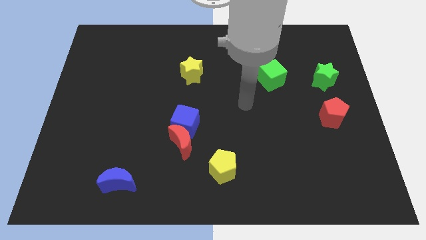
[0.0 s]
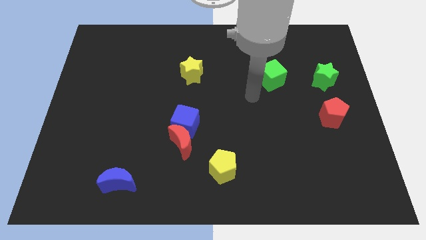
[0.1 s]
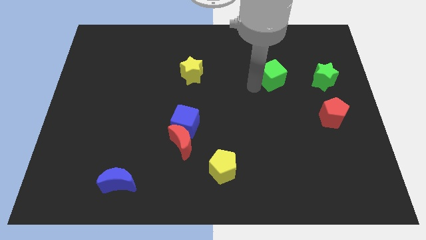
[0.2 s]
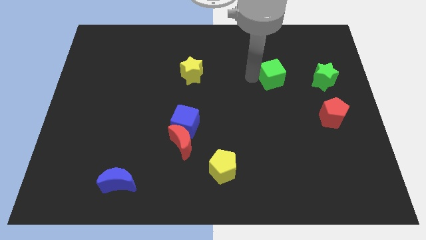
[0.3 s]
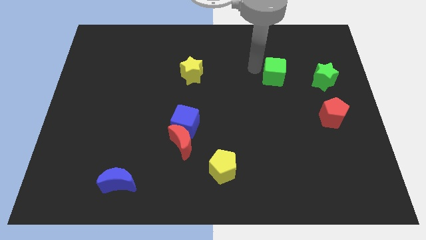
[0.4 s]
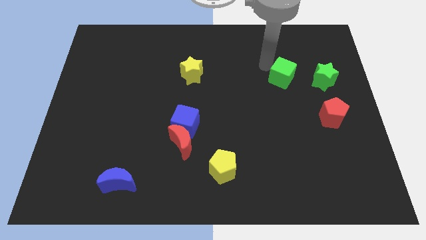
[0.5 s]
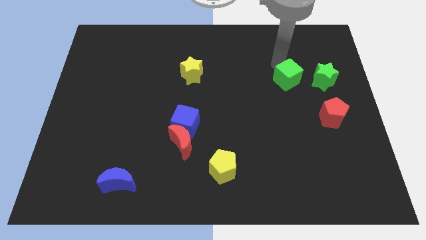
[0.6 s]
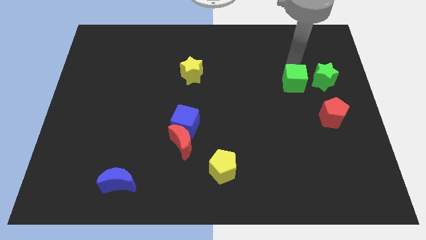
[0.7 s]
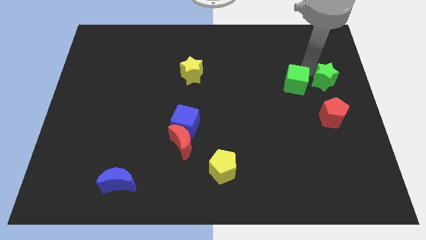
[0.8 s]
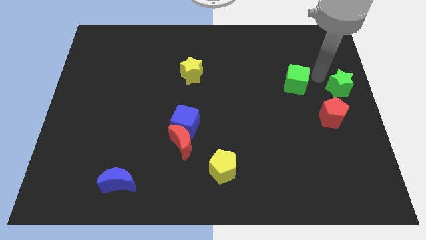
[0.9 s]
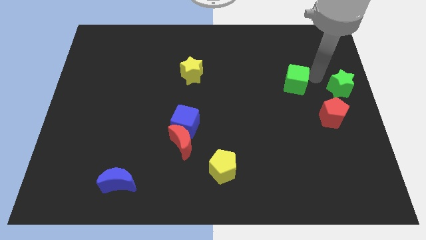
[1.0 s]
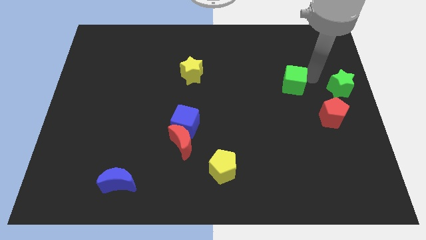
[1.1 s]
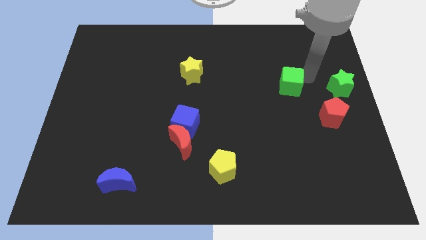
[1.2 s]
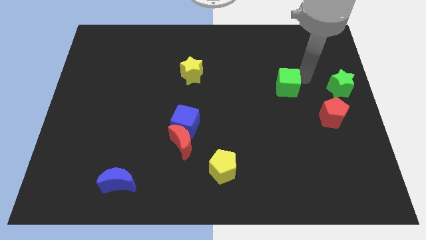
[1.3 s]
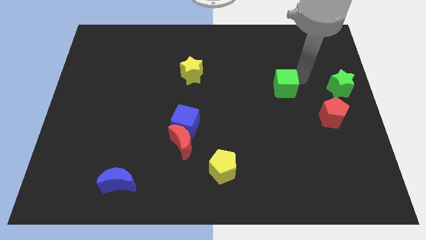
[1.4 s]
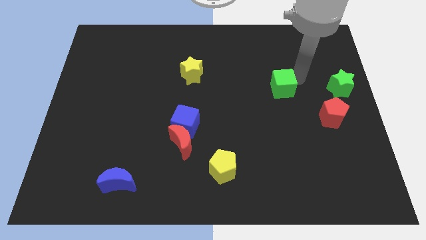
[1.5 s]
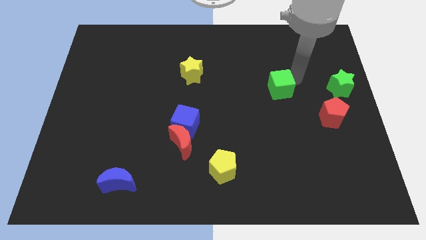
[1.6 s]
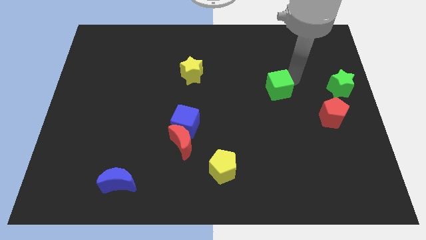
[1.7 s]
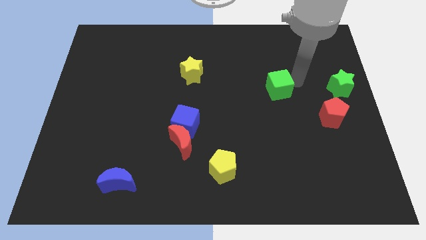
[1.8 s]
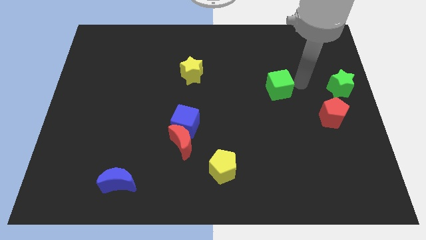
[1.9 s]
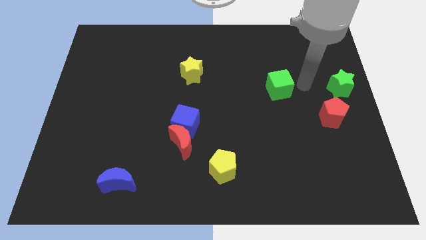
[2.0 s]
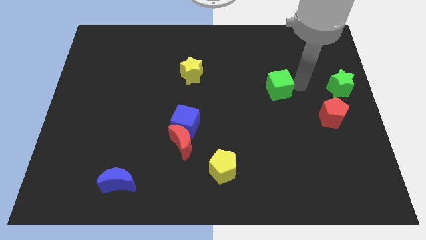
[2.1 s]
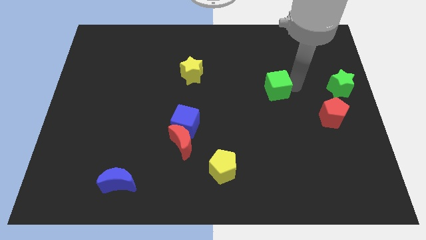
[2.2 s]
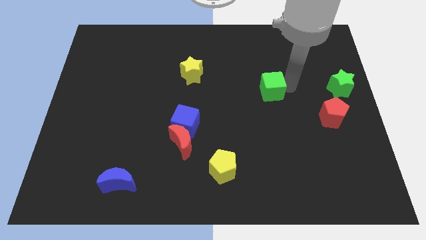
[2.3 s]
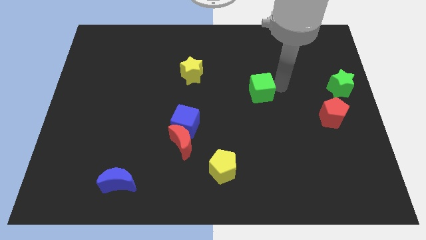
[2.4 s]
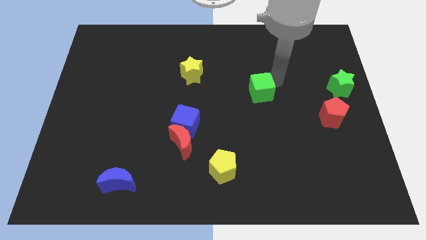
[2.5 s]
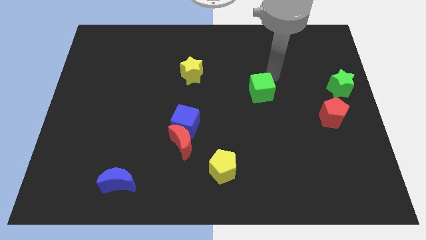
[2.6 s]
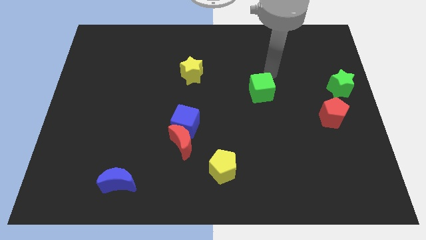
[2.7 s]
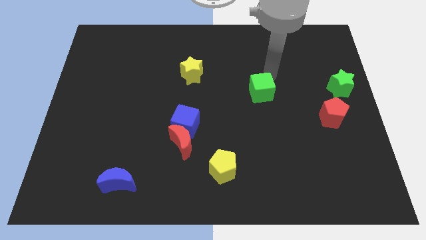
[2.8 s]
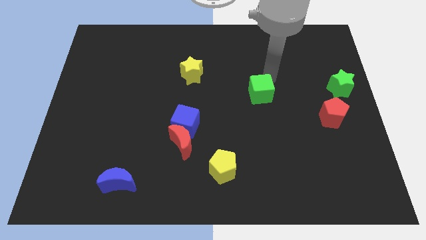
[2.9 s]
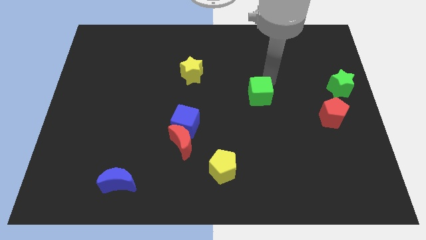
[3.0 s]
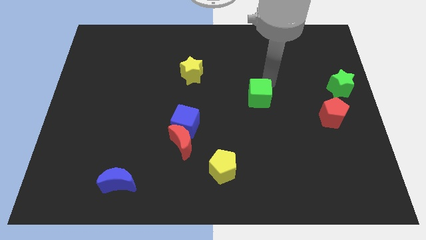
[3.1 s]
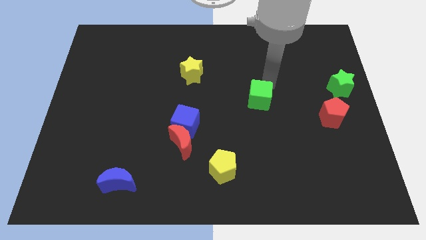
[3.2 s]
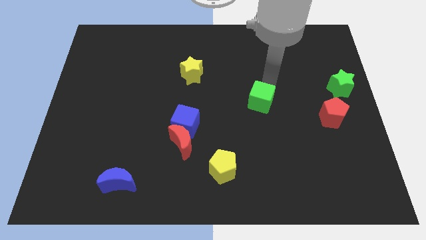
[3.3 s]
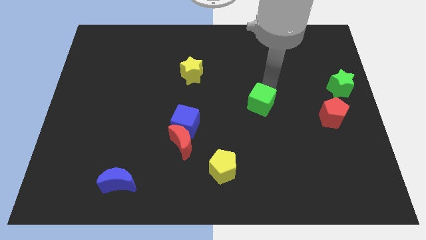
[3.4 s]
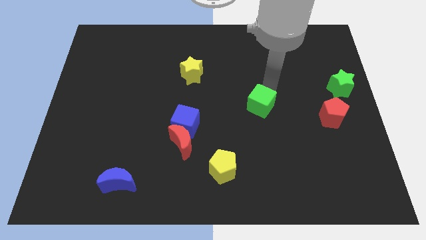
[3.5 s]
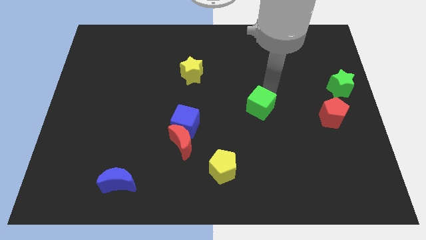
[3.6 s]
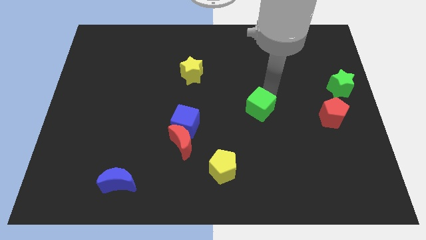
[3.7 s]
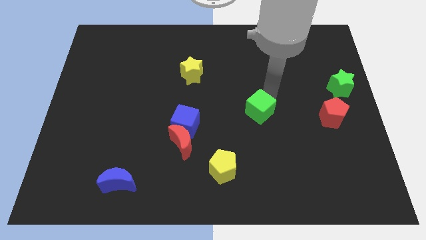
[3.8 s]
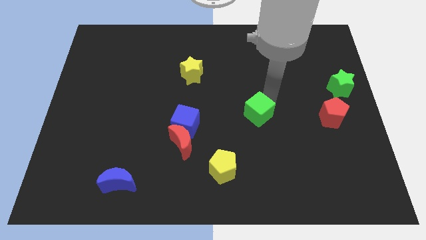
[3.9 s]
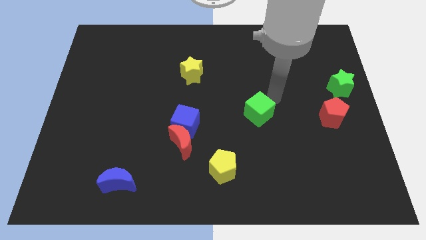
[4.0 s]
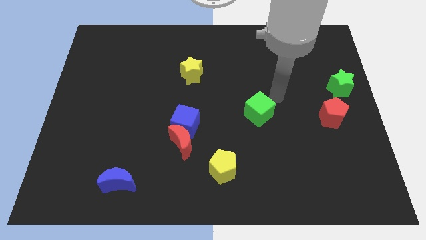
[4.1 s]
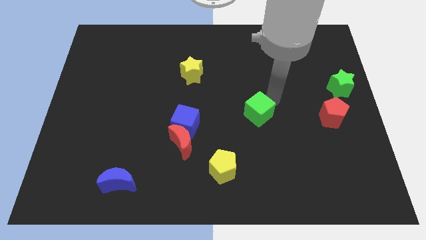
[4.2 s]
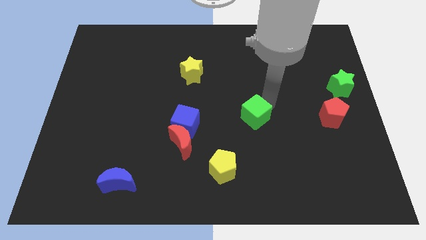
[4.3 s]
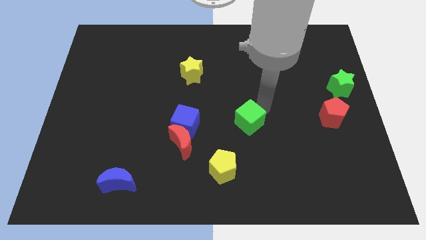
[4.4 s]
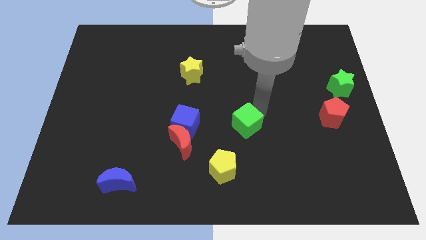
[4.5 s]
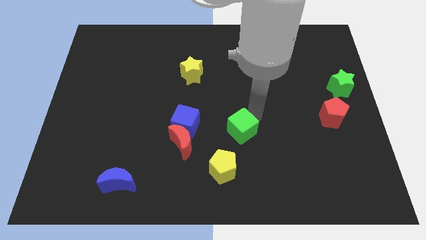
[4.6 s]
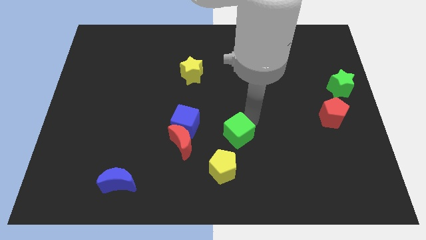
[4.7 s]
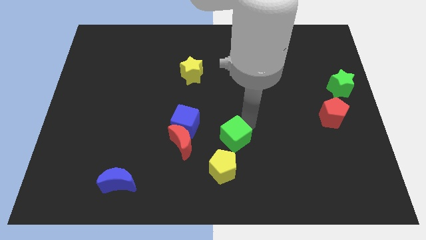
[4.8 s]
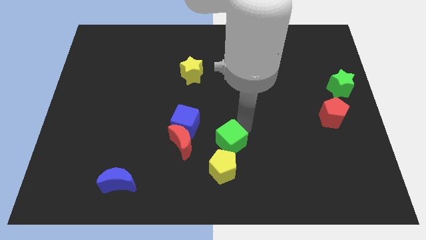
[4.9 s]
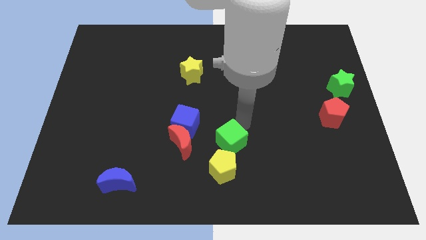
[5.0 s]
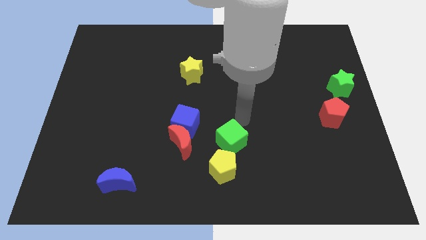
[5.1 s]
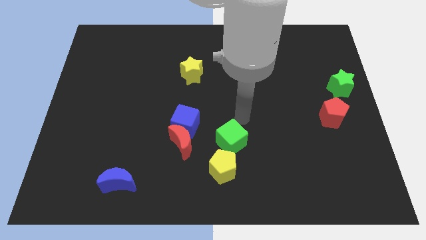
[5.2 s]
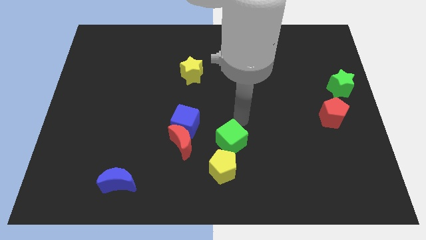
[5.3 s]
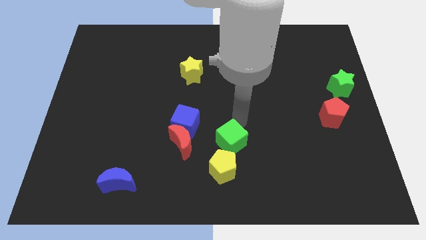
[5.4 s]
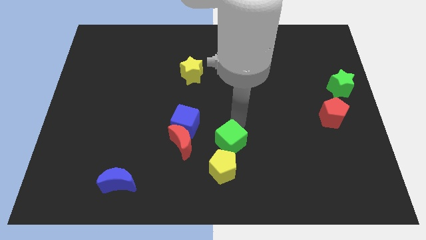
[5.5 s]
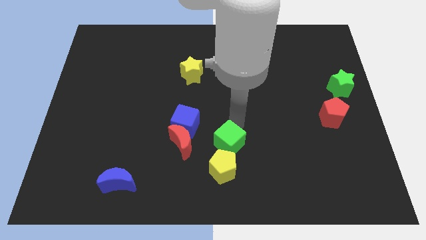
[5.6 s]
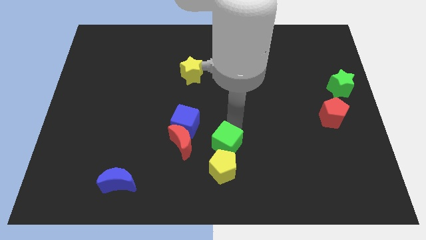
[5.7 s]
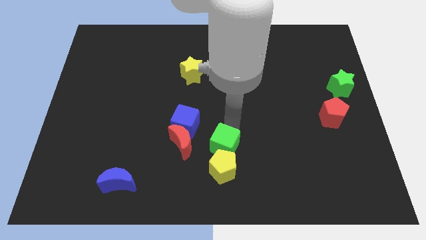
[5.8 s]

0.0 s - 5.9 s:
move the green cube to the yellow pentagon
